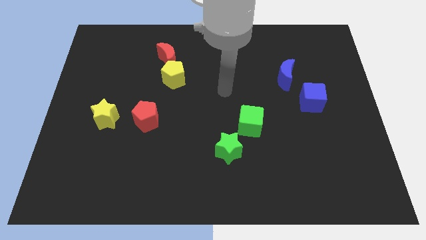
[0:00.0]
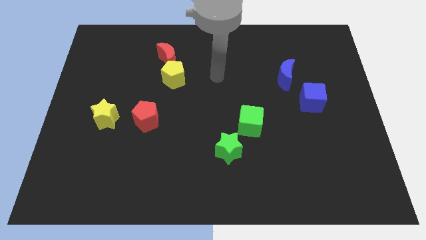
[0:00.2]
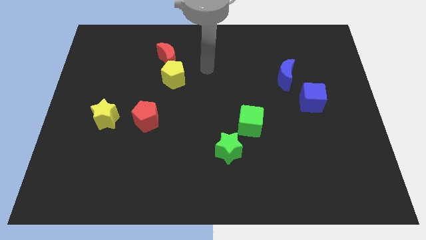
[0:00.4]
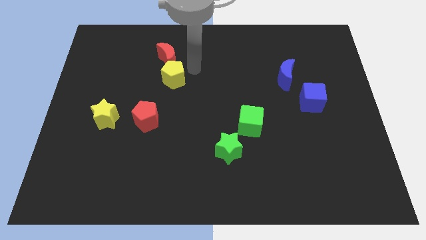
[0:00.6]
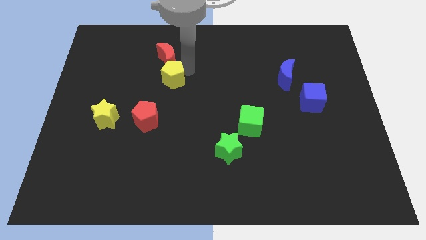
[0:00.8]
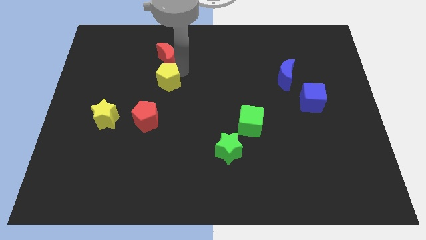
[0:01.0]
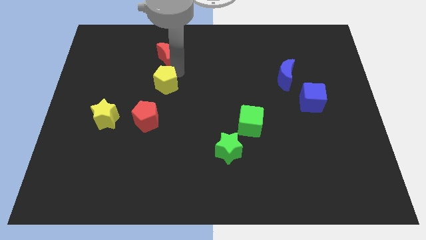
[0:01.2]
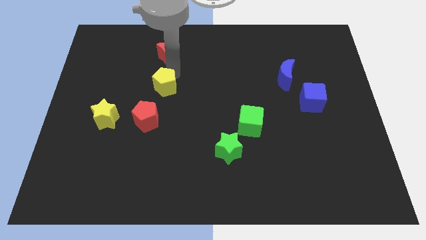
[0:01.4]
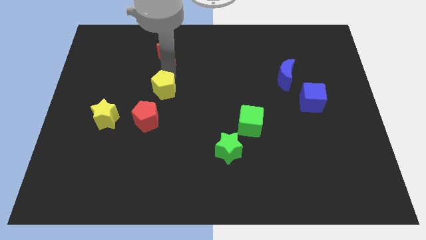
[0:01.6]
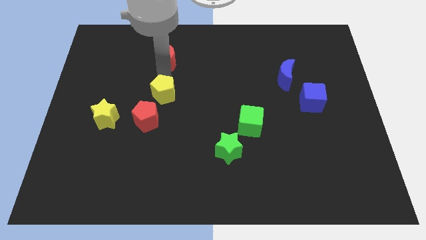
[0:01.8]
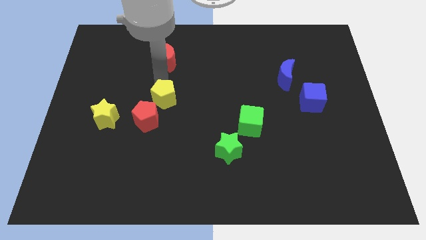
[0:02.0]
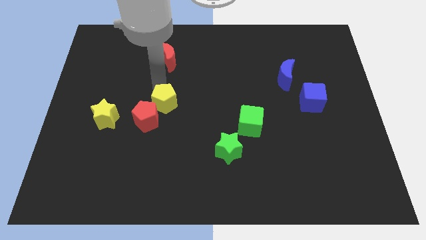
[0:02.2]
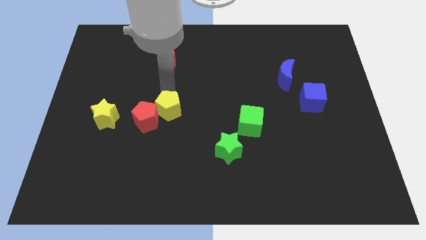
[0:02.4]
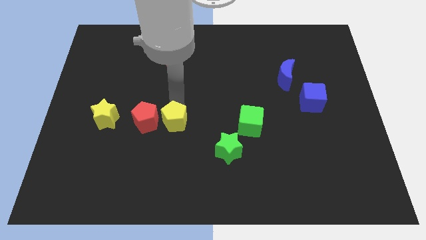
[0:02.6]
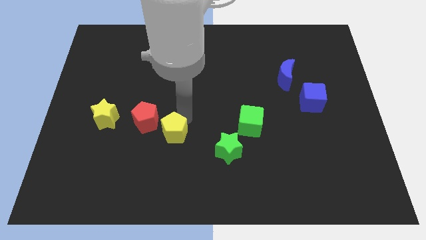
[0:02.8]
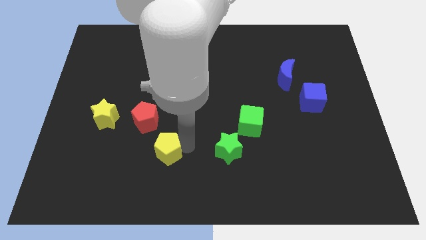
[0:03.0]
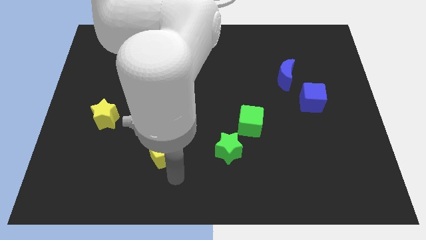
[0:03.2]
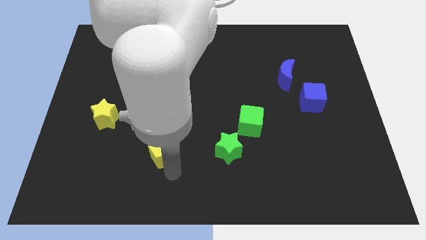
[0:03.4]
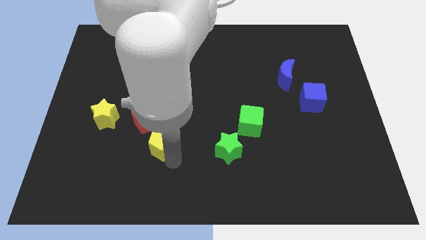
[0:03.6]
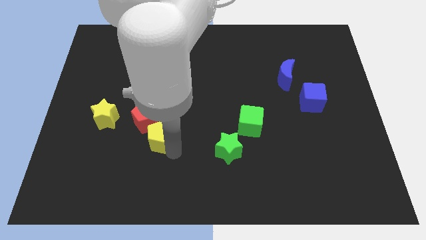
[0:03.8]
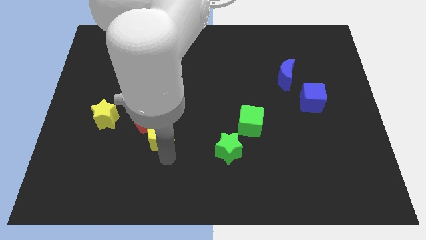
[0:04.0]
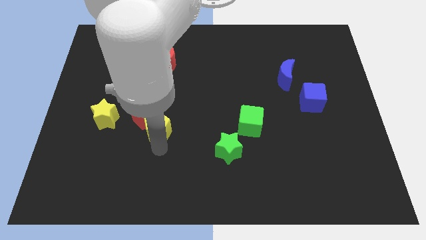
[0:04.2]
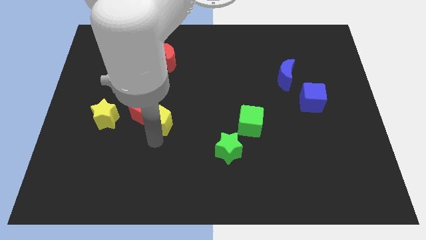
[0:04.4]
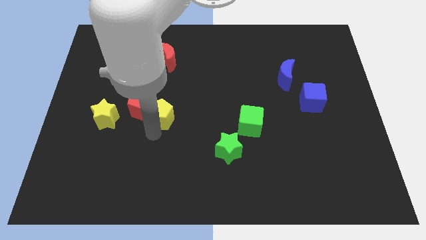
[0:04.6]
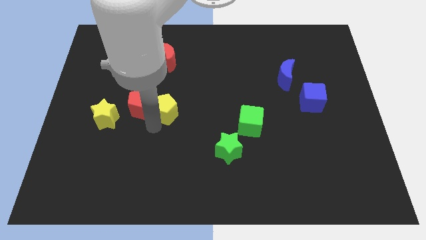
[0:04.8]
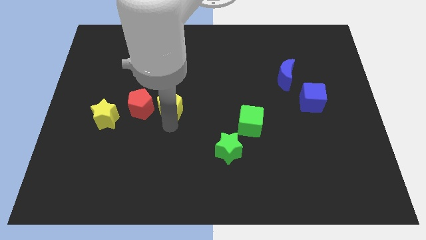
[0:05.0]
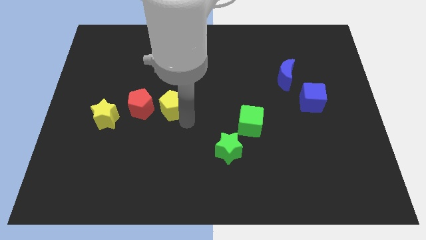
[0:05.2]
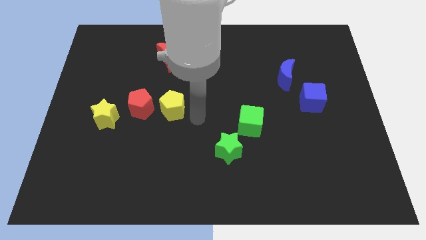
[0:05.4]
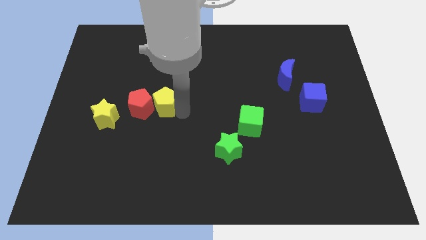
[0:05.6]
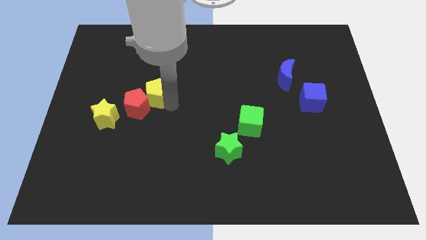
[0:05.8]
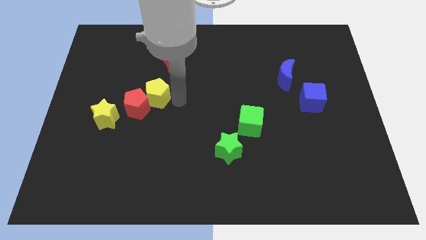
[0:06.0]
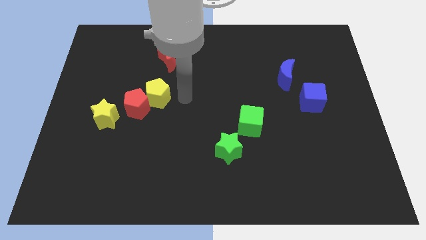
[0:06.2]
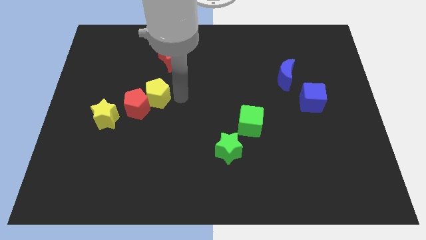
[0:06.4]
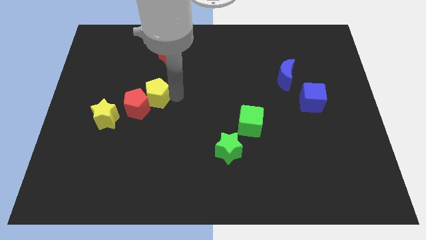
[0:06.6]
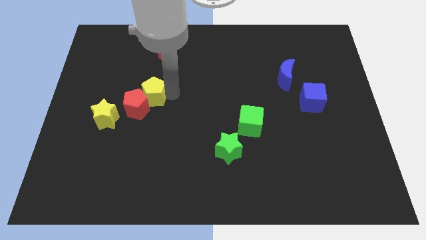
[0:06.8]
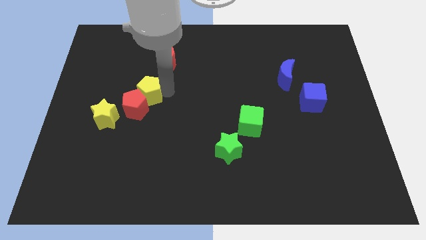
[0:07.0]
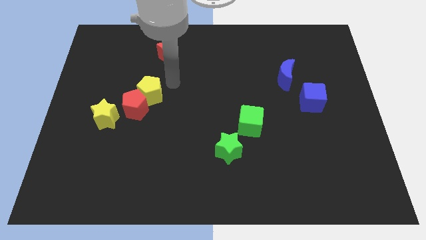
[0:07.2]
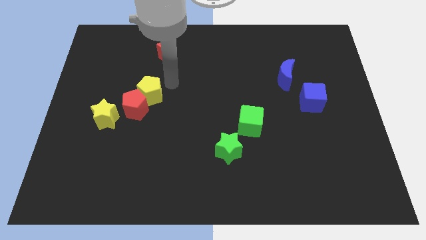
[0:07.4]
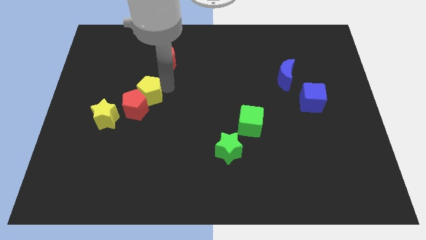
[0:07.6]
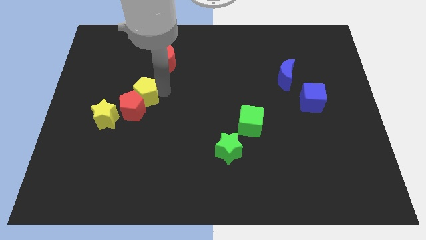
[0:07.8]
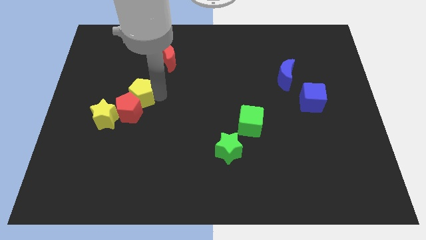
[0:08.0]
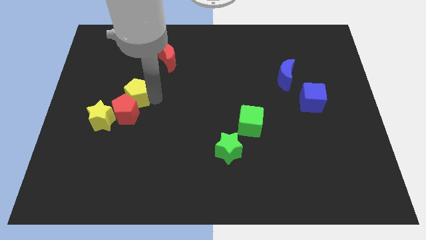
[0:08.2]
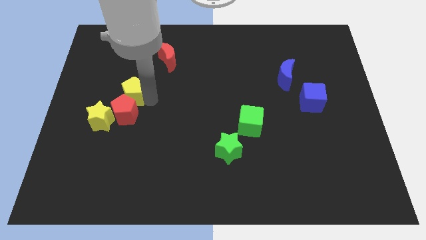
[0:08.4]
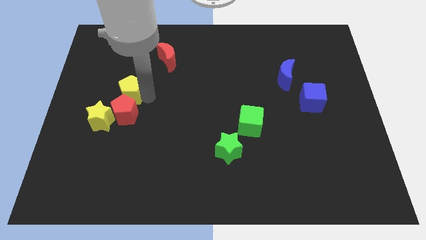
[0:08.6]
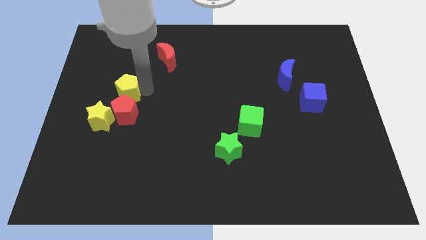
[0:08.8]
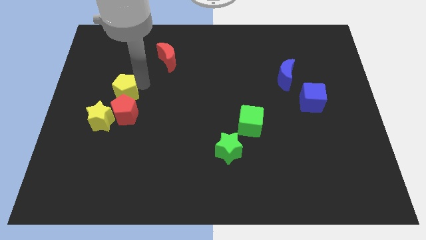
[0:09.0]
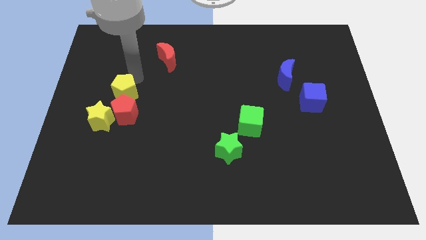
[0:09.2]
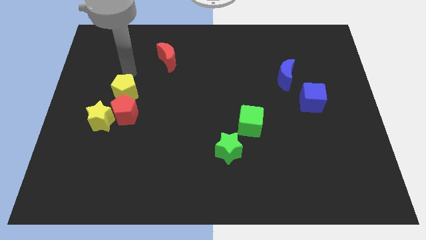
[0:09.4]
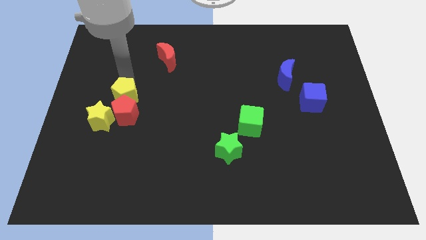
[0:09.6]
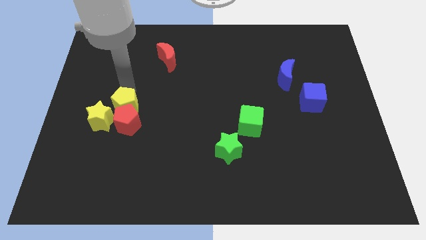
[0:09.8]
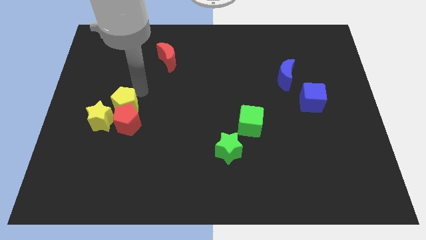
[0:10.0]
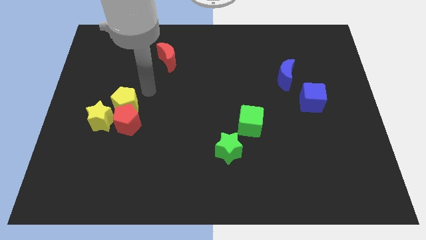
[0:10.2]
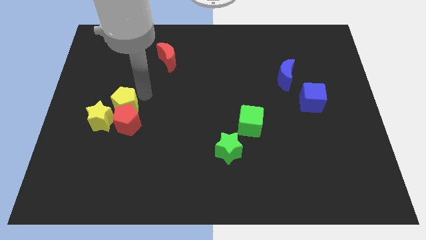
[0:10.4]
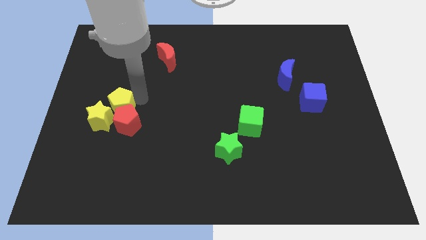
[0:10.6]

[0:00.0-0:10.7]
put the yellow pentagon close to the yellow star

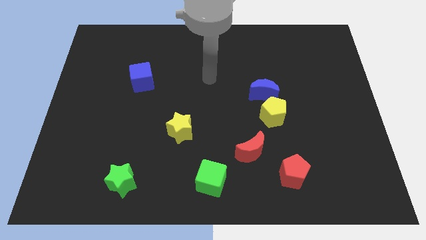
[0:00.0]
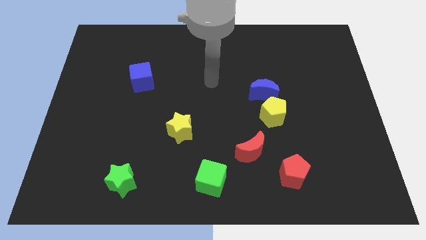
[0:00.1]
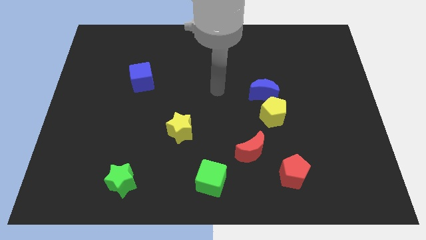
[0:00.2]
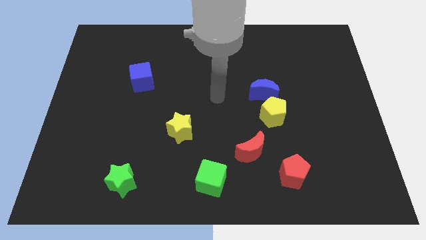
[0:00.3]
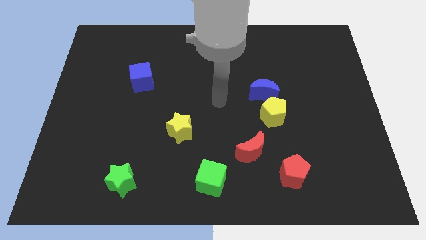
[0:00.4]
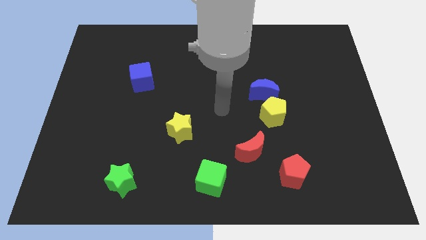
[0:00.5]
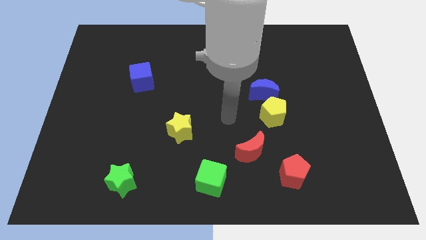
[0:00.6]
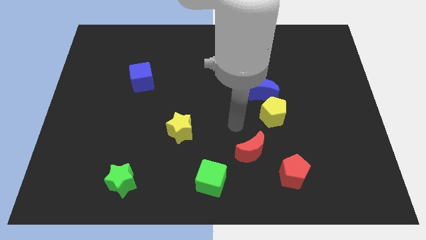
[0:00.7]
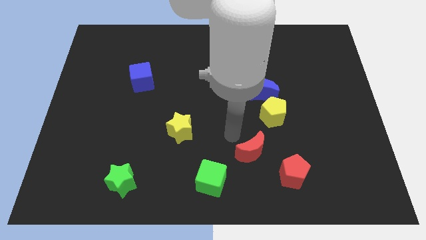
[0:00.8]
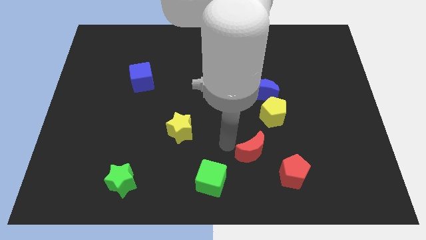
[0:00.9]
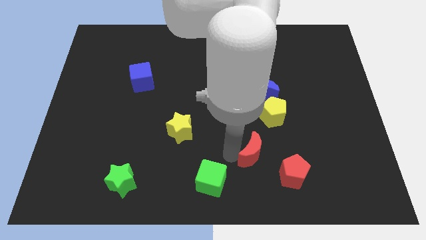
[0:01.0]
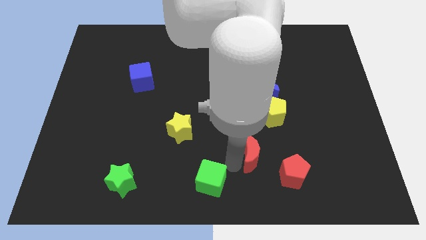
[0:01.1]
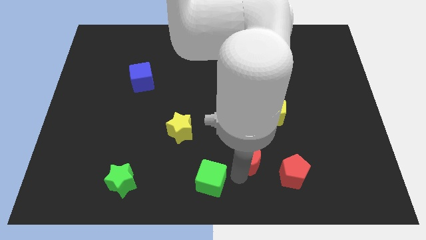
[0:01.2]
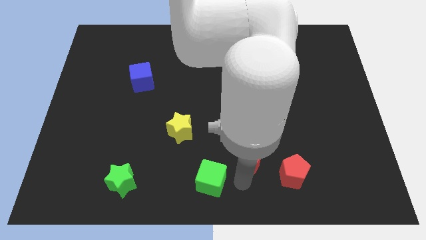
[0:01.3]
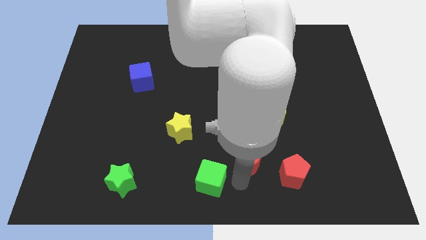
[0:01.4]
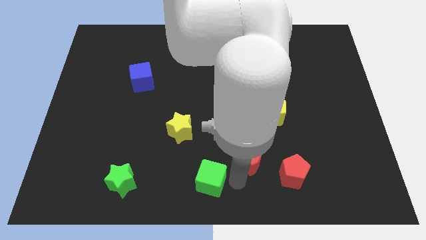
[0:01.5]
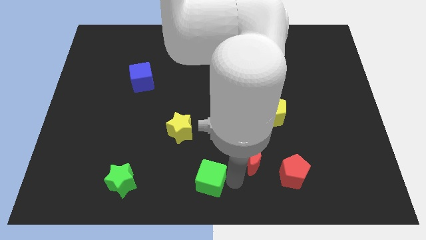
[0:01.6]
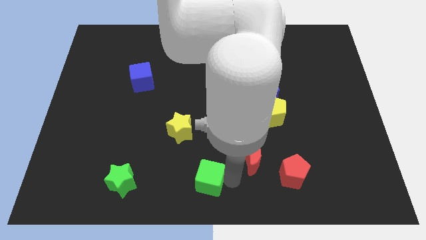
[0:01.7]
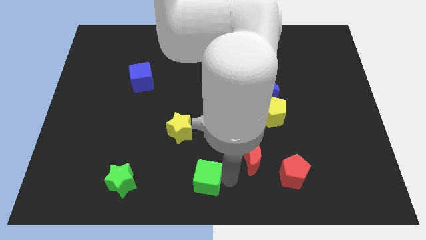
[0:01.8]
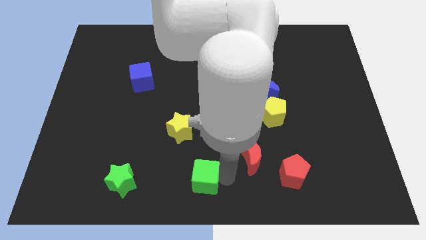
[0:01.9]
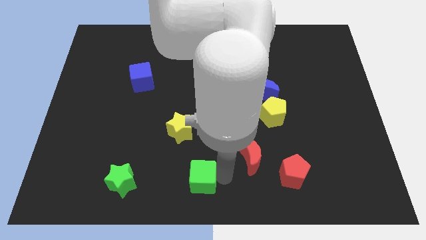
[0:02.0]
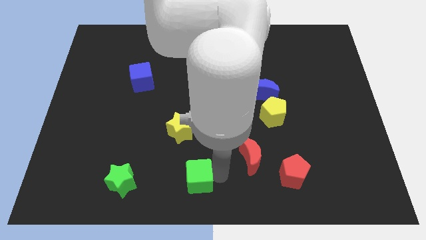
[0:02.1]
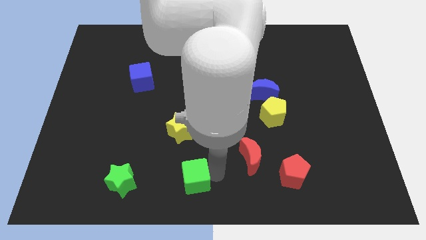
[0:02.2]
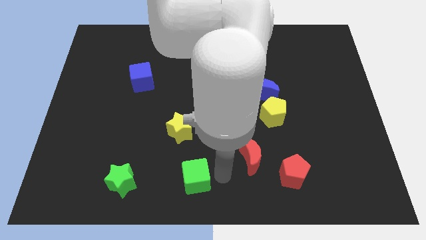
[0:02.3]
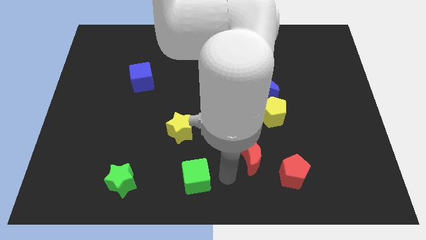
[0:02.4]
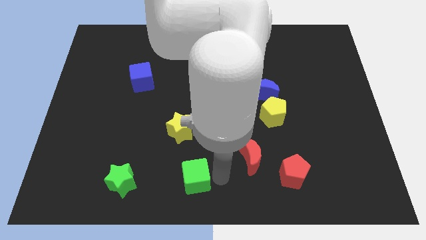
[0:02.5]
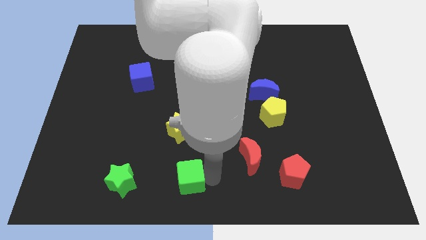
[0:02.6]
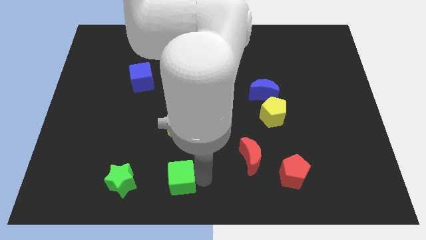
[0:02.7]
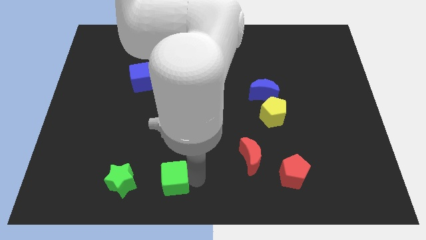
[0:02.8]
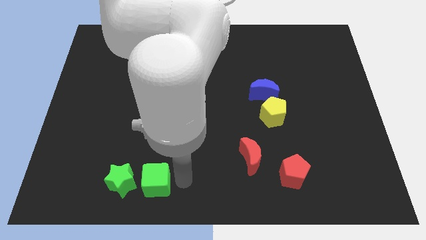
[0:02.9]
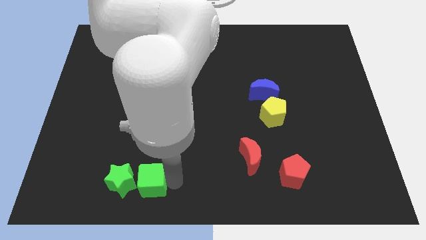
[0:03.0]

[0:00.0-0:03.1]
push the green cube next to the green star
